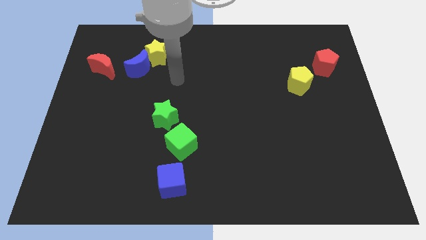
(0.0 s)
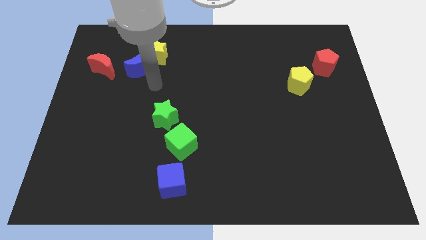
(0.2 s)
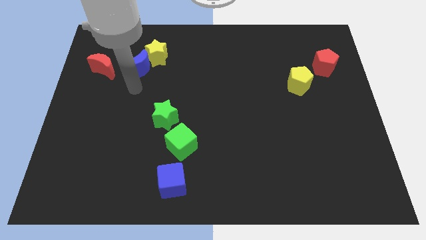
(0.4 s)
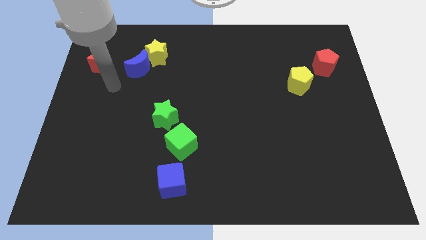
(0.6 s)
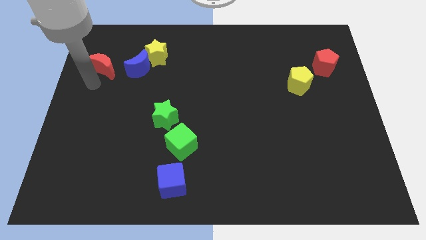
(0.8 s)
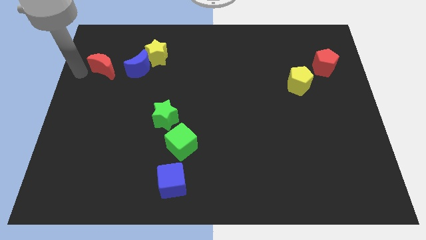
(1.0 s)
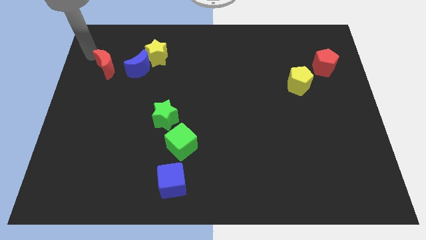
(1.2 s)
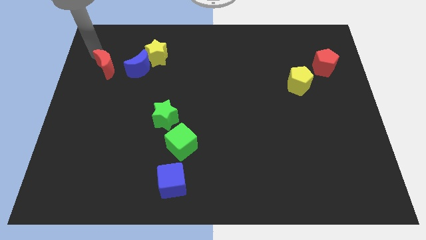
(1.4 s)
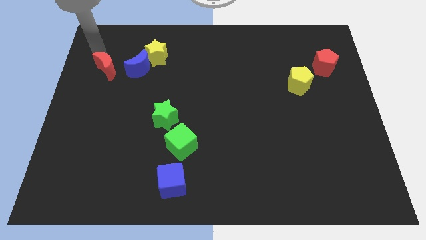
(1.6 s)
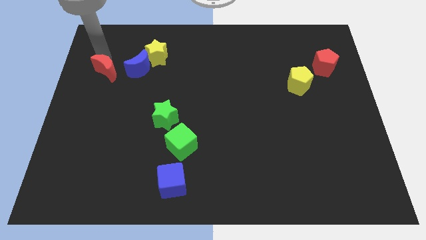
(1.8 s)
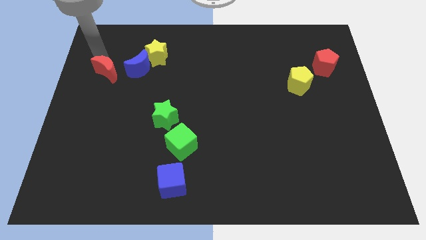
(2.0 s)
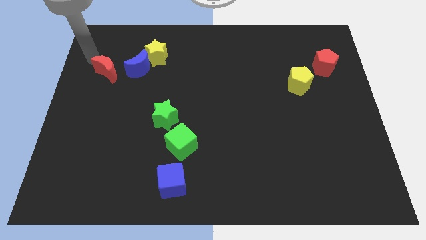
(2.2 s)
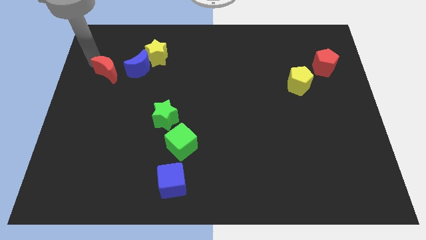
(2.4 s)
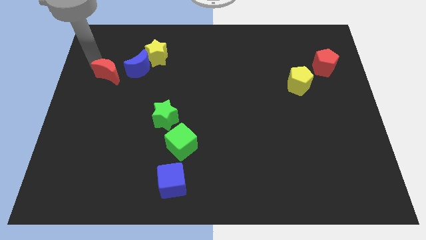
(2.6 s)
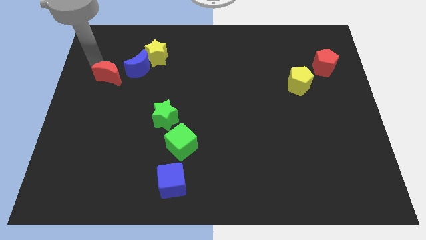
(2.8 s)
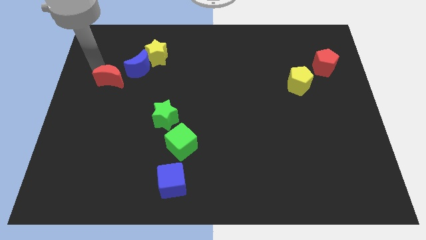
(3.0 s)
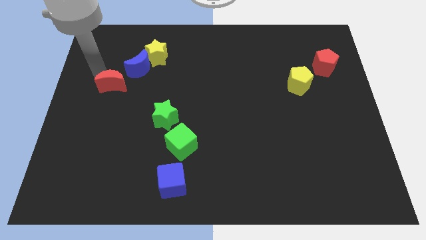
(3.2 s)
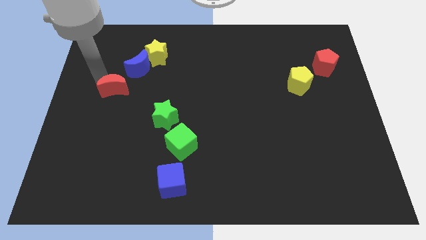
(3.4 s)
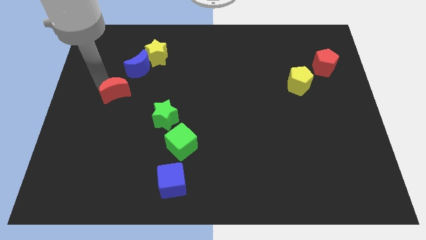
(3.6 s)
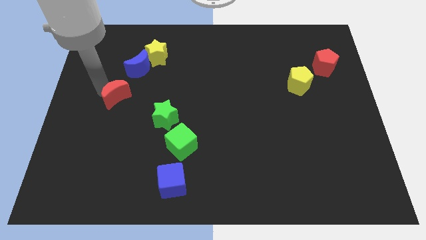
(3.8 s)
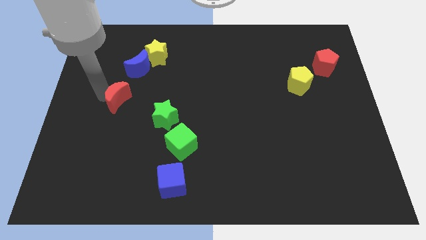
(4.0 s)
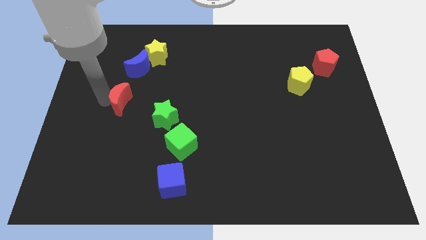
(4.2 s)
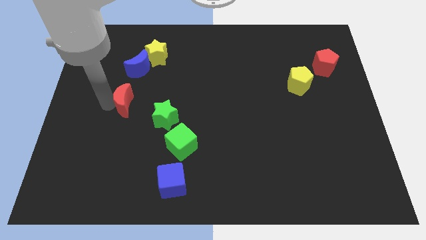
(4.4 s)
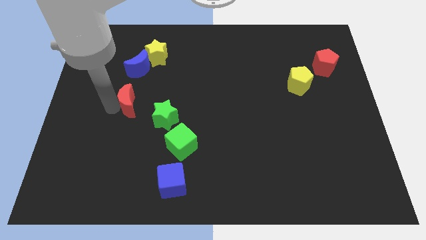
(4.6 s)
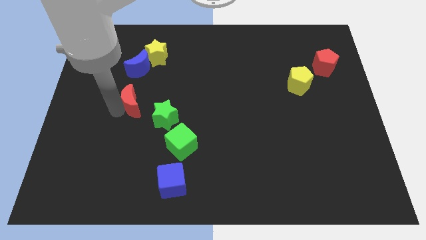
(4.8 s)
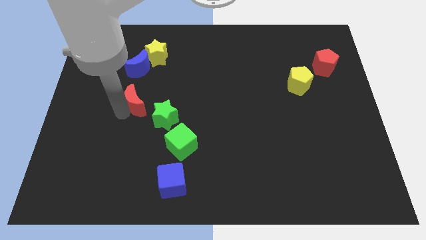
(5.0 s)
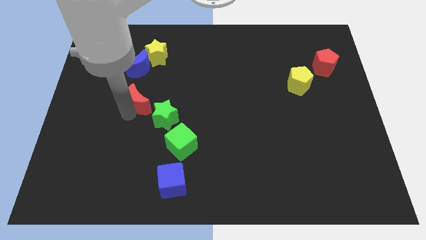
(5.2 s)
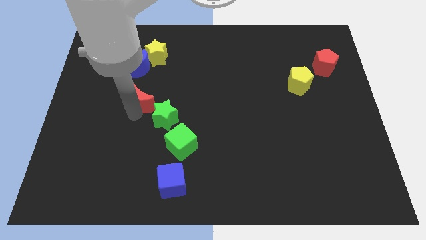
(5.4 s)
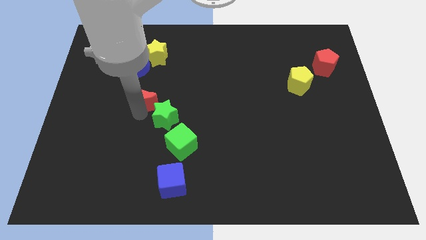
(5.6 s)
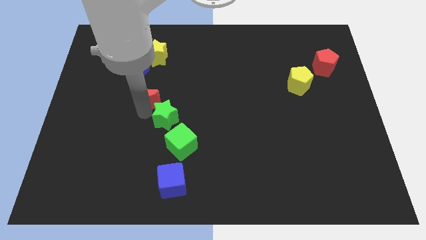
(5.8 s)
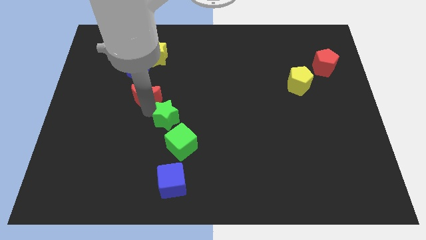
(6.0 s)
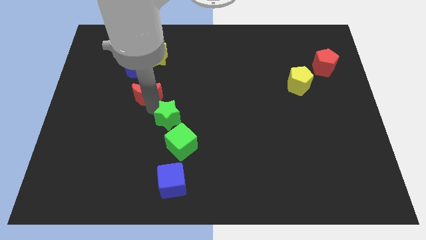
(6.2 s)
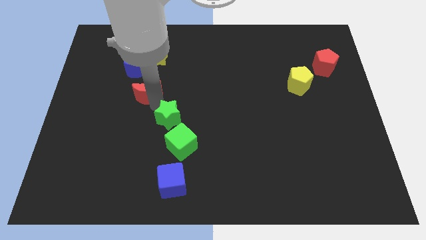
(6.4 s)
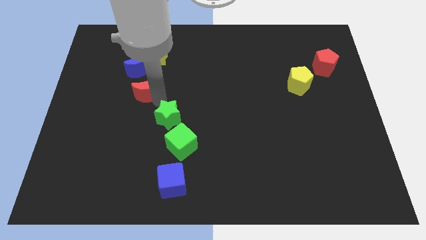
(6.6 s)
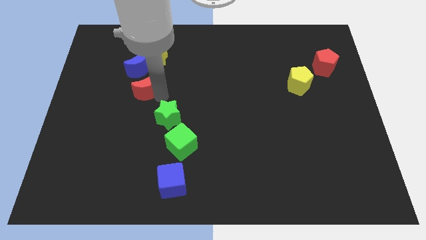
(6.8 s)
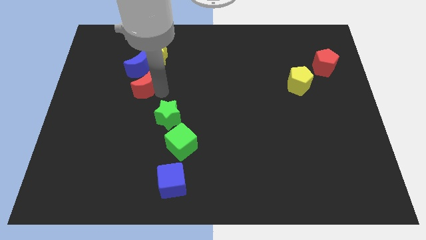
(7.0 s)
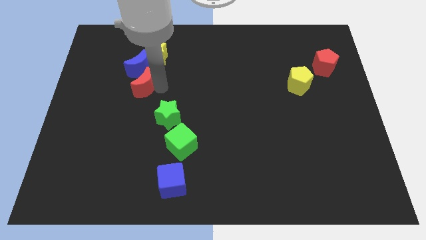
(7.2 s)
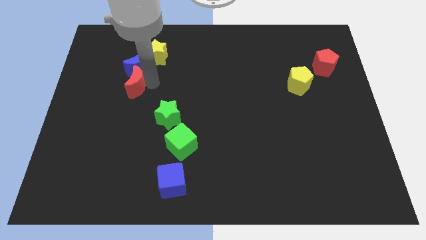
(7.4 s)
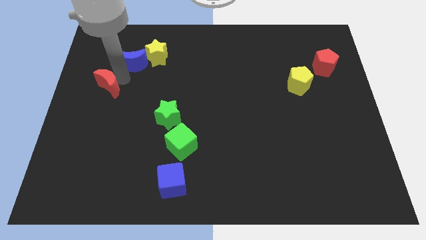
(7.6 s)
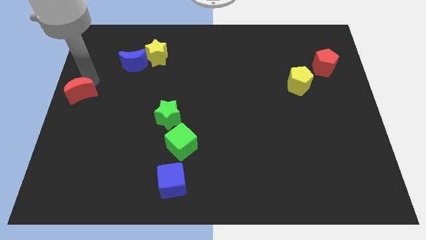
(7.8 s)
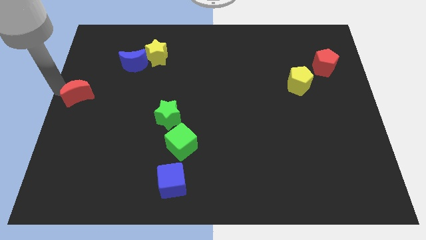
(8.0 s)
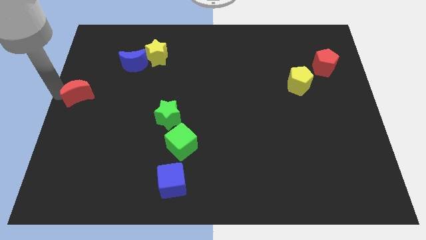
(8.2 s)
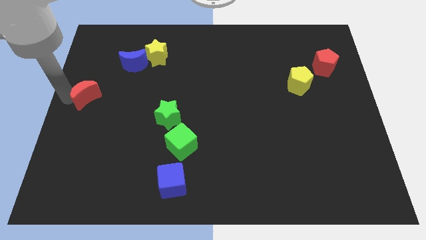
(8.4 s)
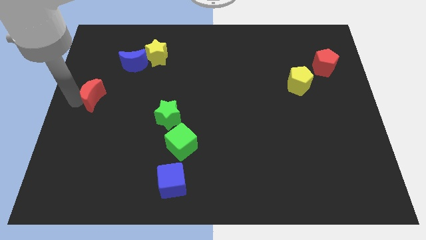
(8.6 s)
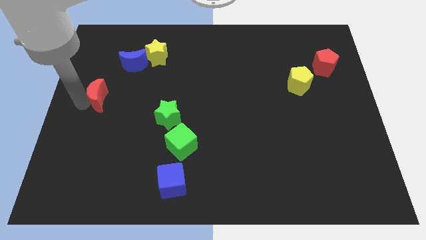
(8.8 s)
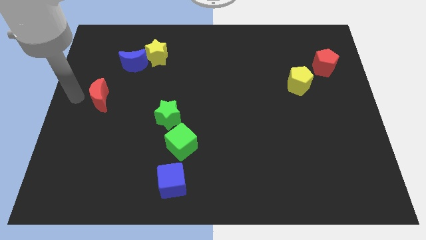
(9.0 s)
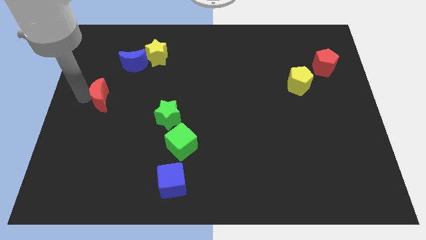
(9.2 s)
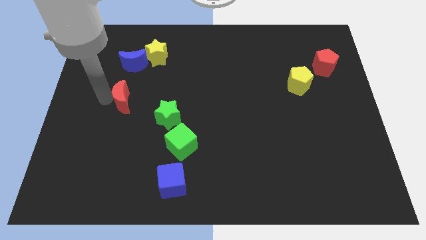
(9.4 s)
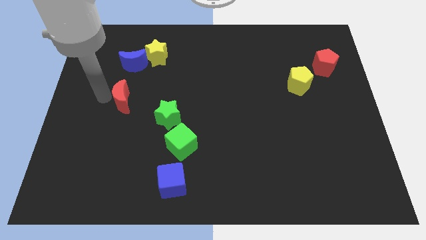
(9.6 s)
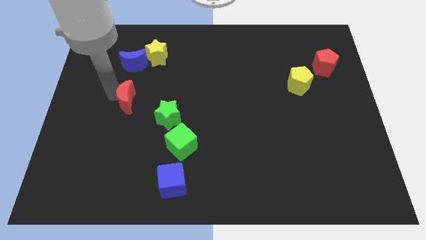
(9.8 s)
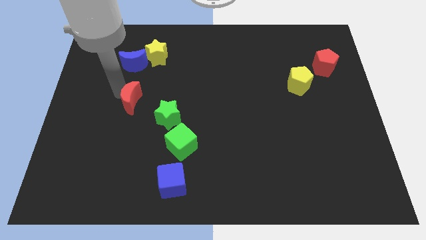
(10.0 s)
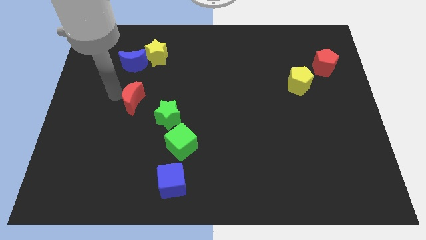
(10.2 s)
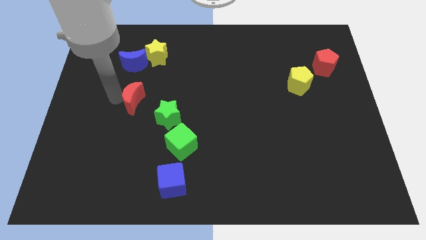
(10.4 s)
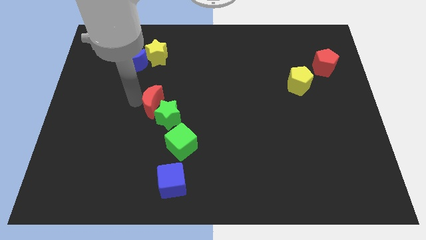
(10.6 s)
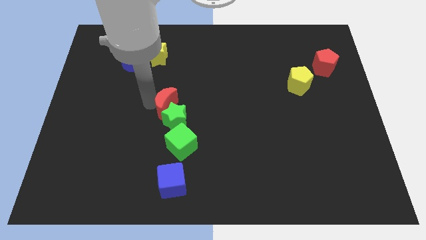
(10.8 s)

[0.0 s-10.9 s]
put the red moon to the top side of the green cube

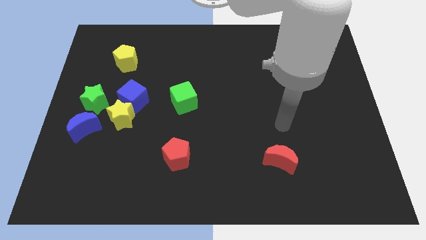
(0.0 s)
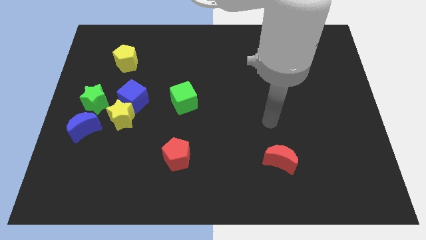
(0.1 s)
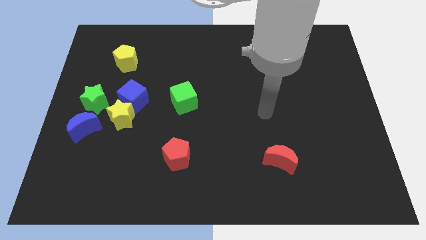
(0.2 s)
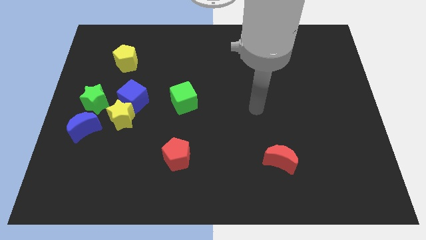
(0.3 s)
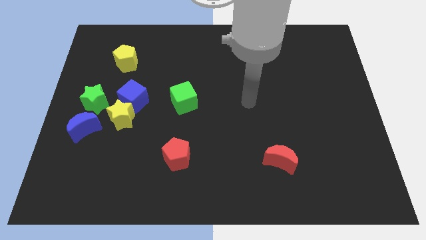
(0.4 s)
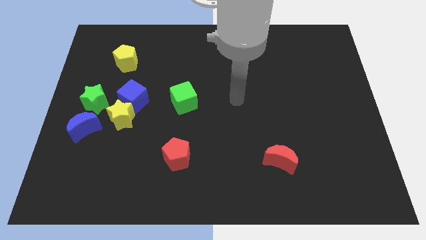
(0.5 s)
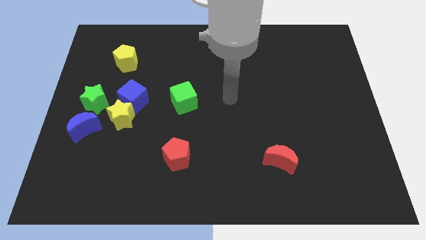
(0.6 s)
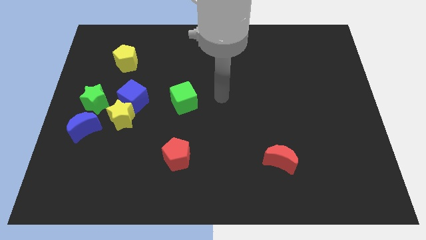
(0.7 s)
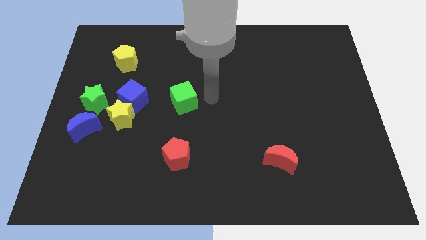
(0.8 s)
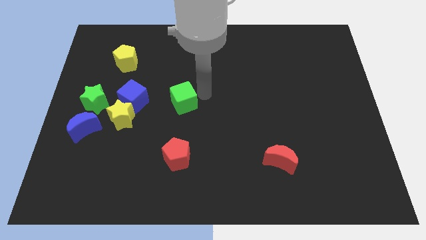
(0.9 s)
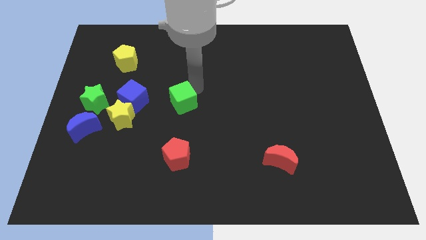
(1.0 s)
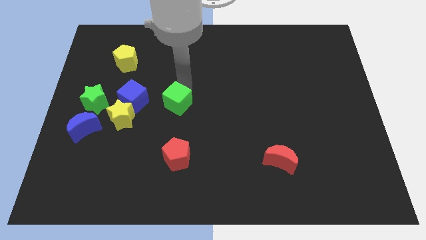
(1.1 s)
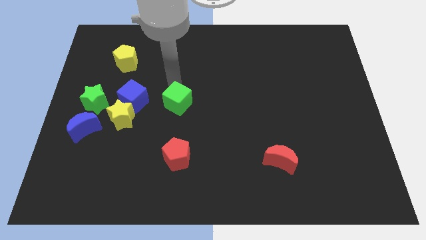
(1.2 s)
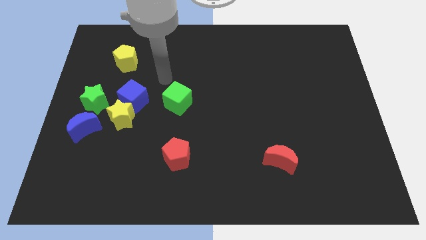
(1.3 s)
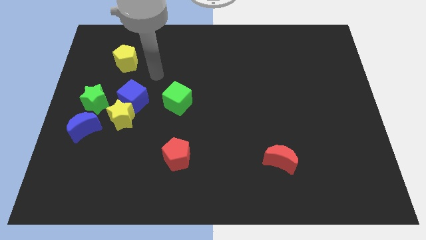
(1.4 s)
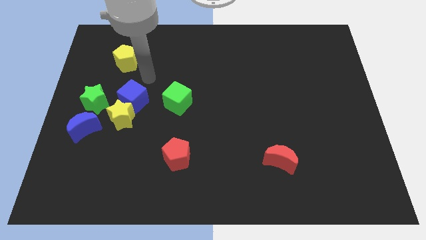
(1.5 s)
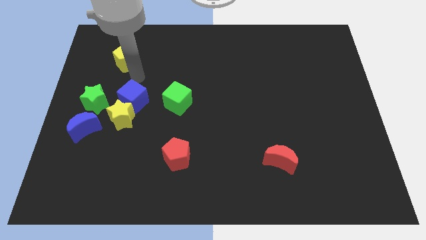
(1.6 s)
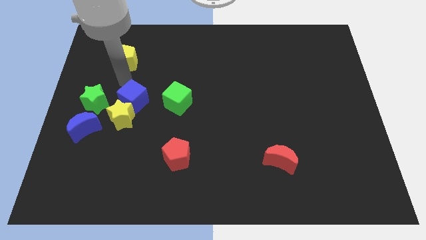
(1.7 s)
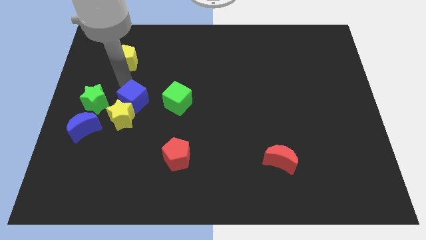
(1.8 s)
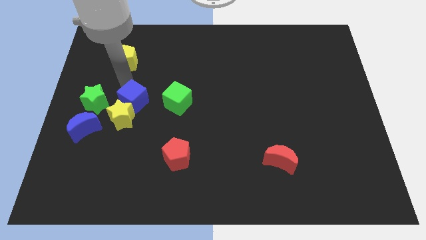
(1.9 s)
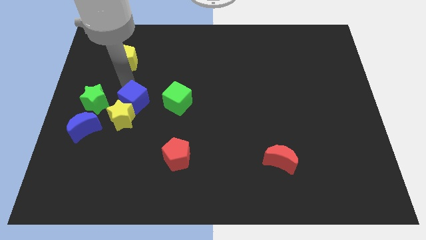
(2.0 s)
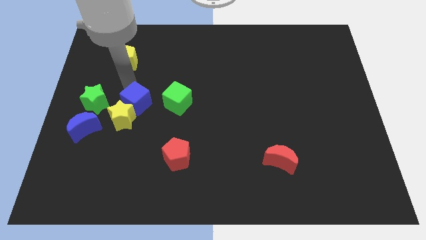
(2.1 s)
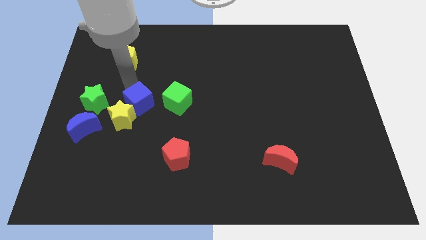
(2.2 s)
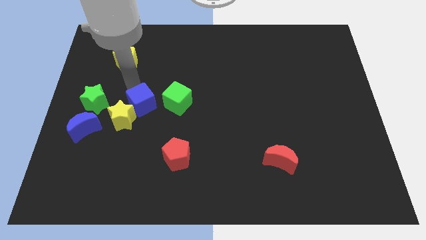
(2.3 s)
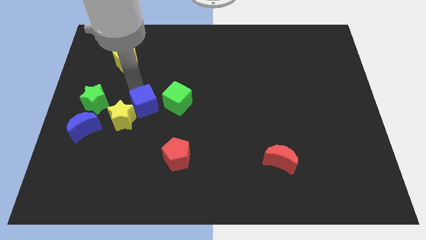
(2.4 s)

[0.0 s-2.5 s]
push the blue cube diagonally down and to the left of the green cube
